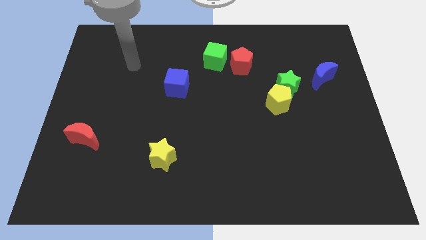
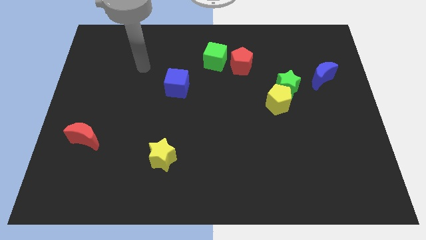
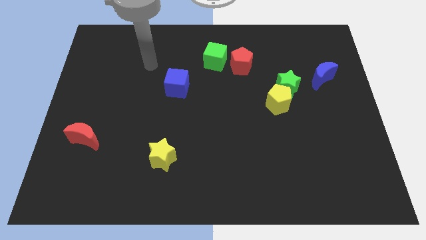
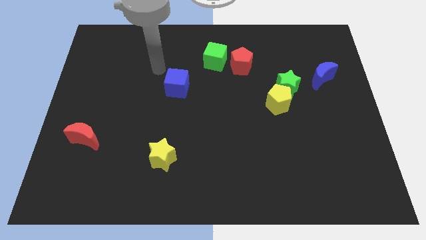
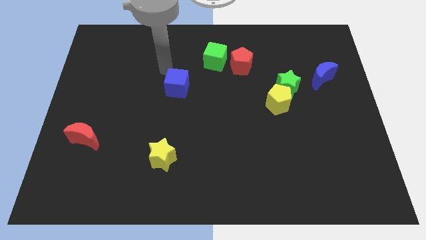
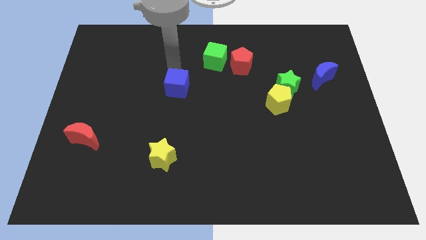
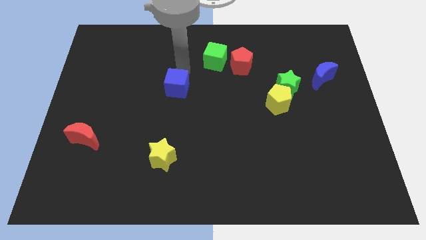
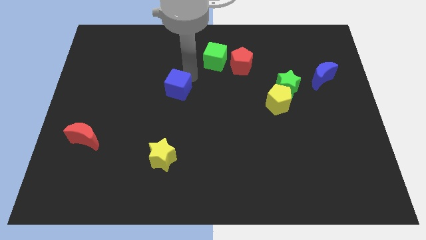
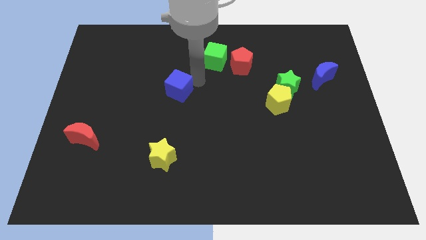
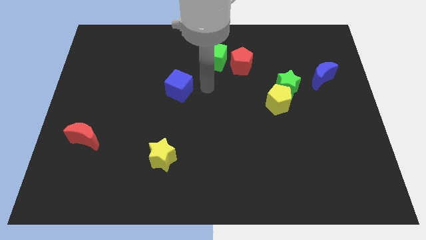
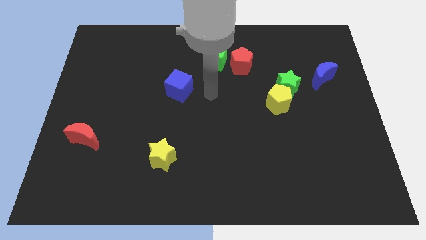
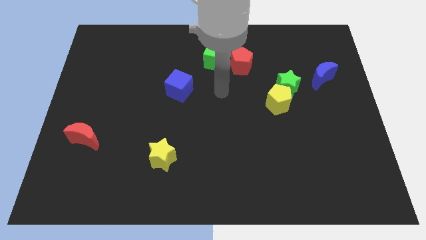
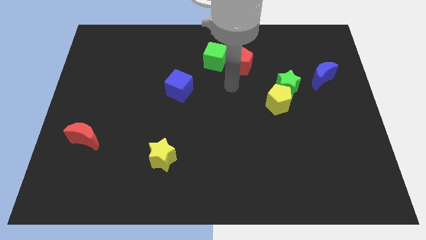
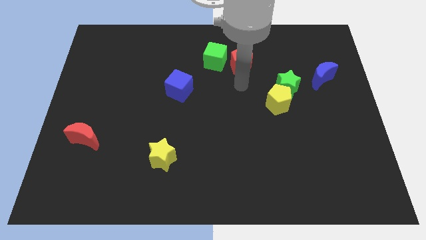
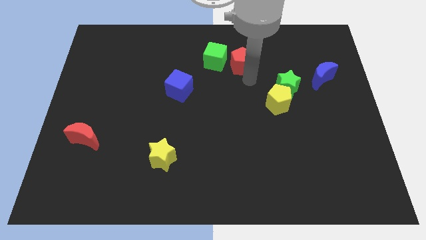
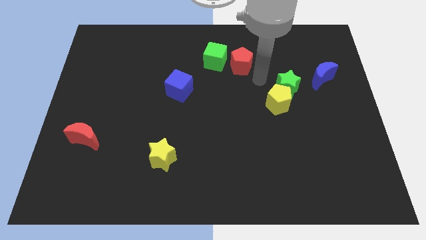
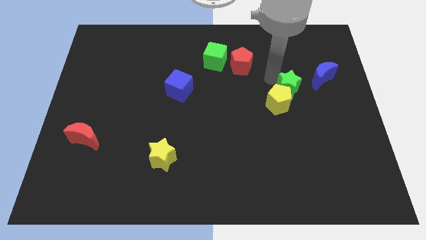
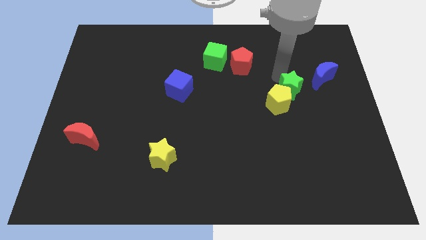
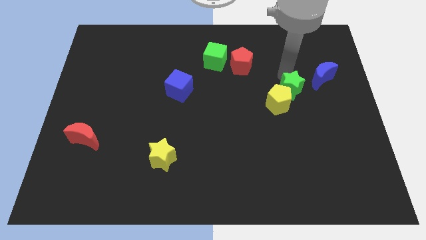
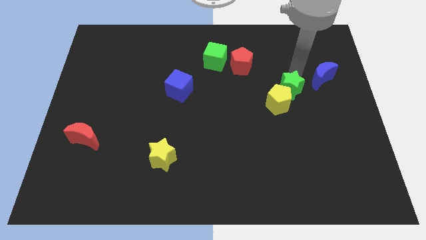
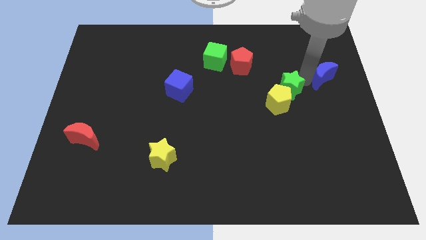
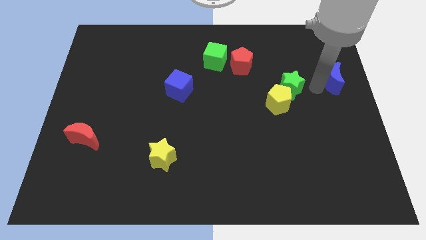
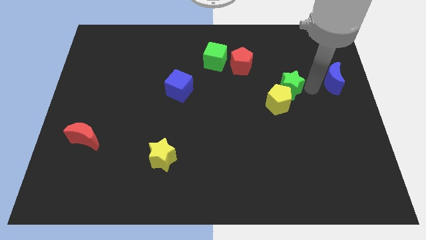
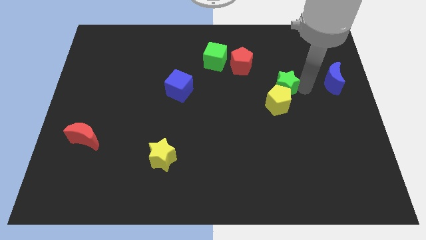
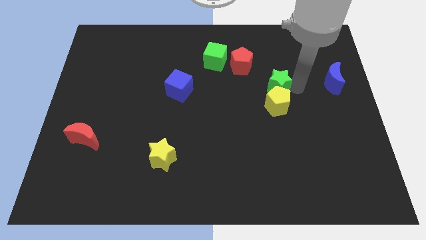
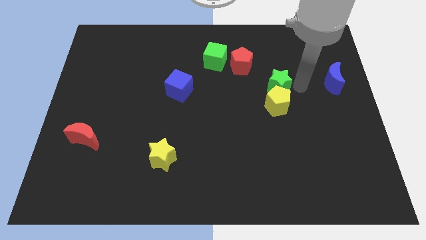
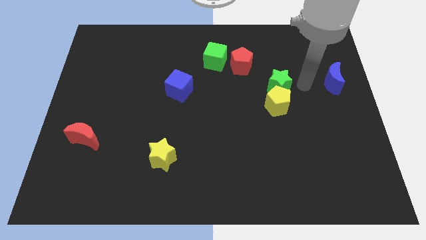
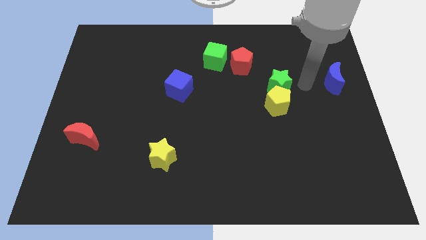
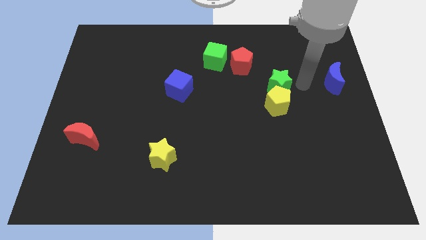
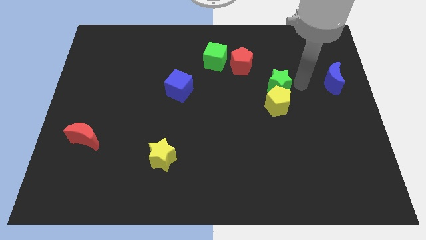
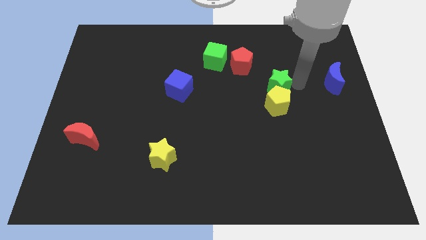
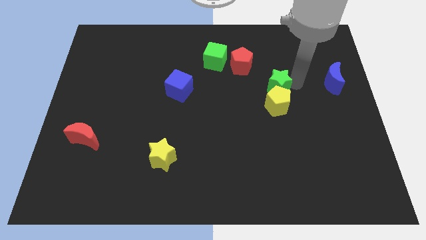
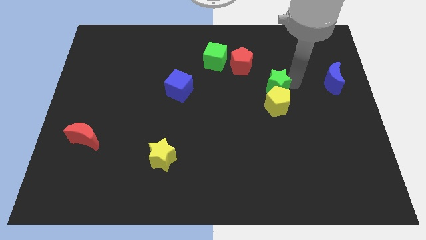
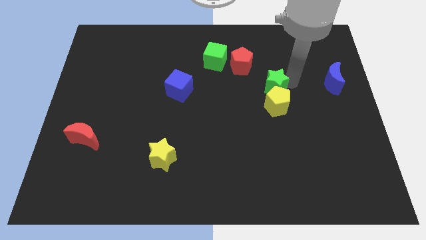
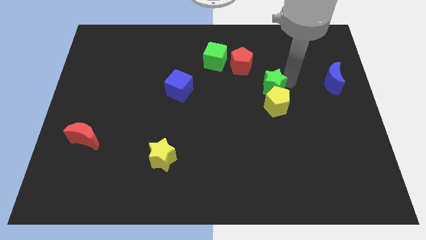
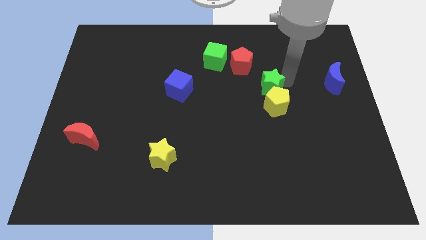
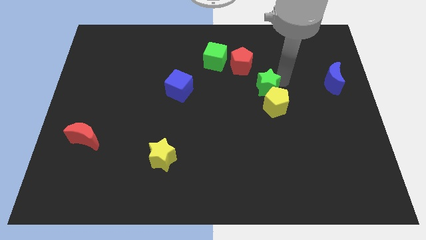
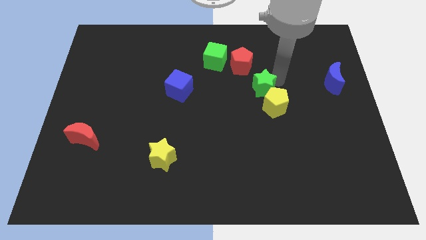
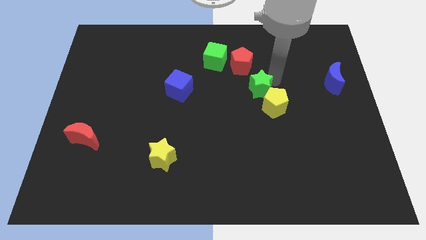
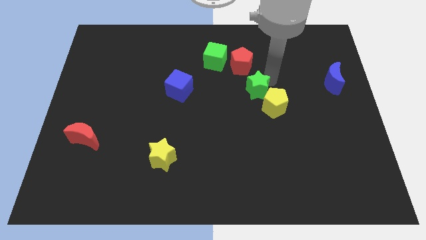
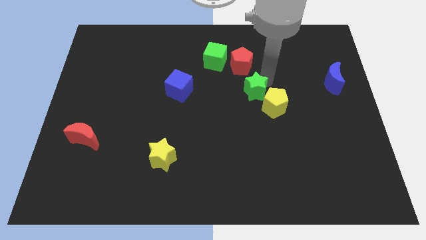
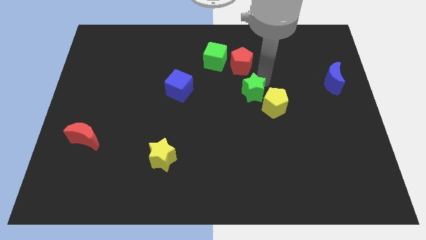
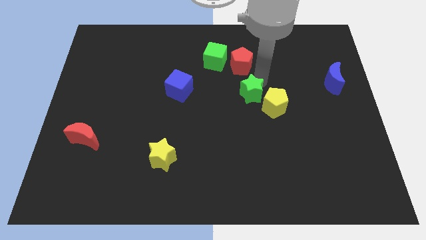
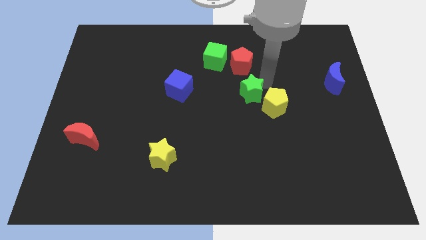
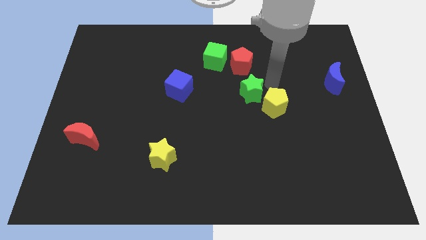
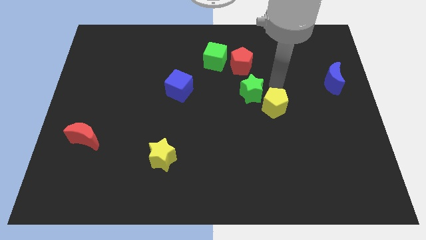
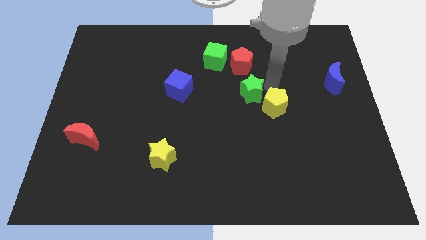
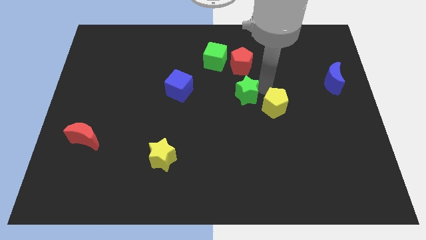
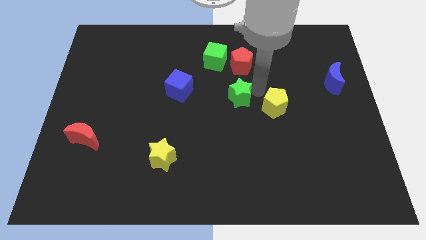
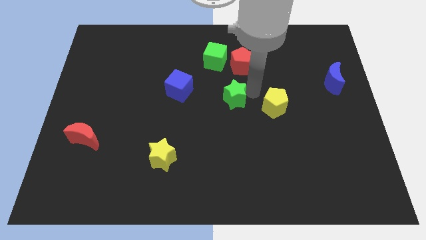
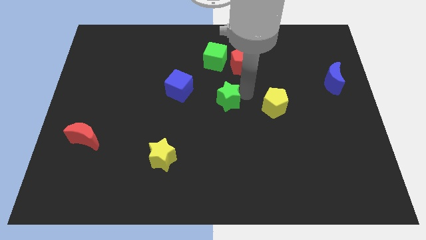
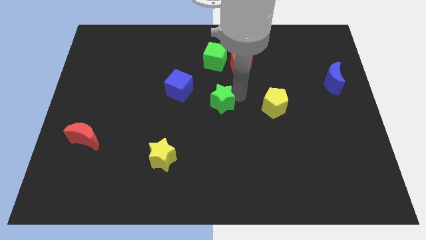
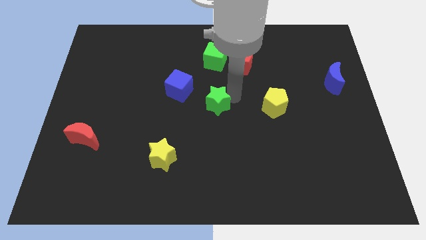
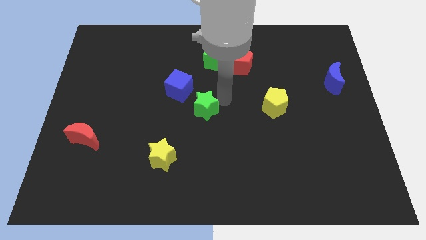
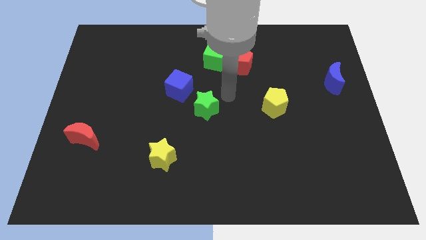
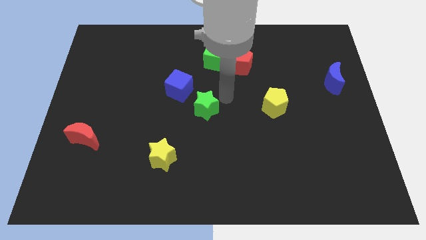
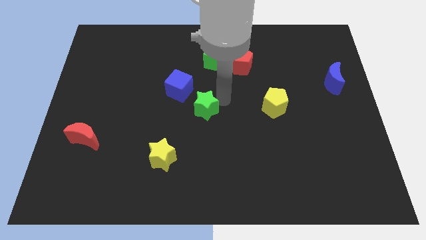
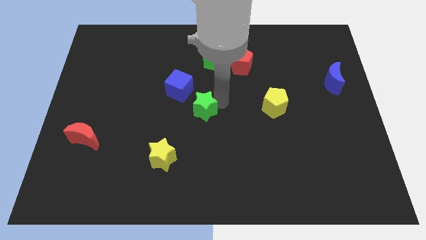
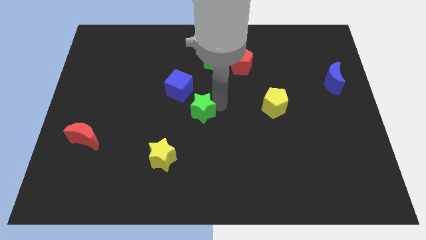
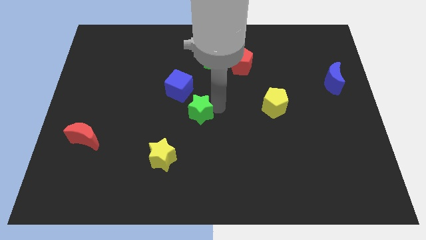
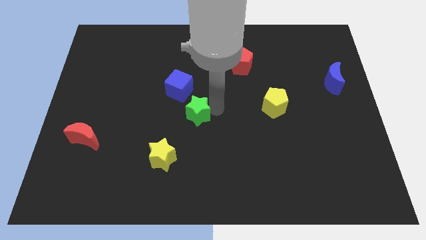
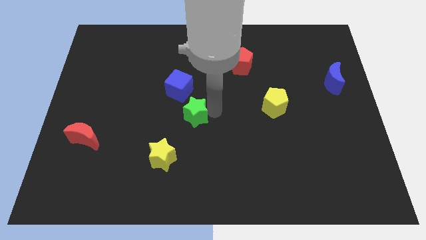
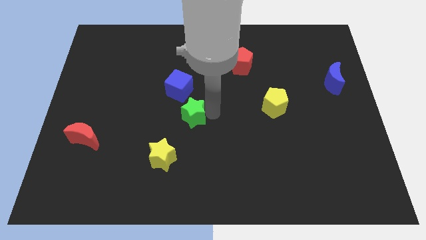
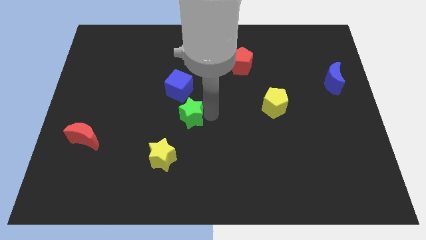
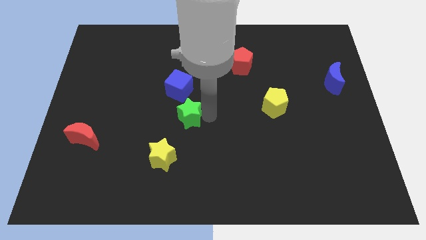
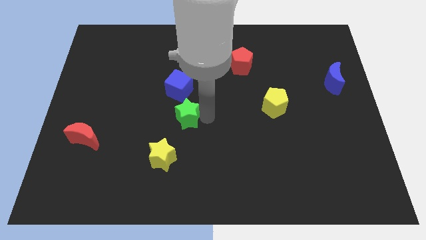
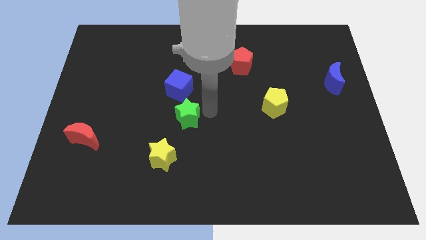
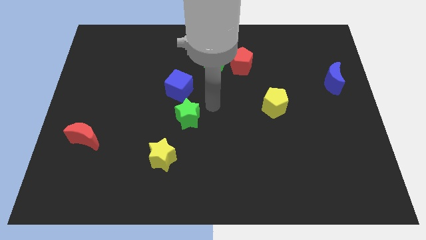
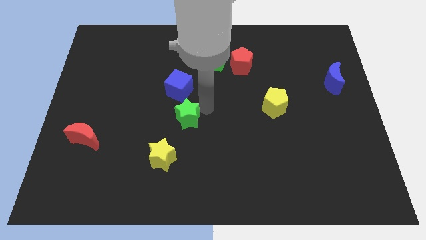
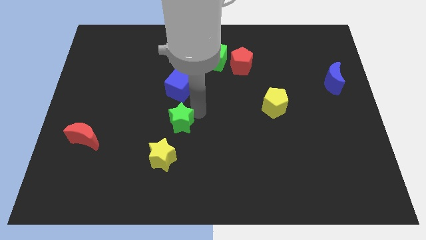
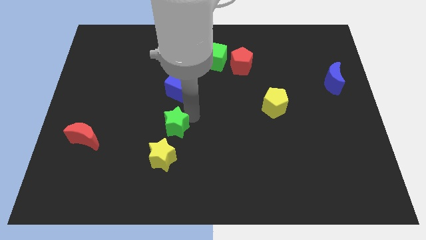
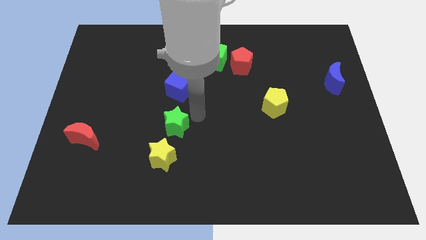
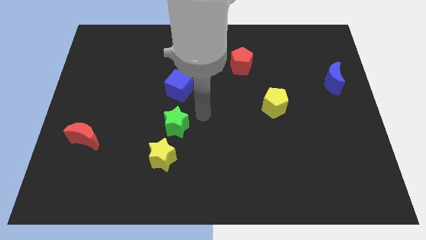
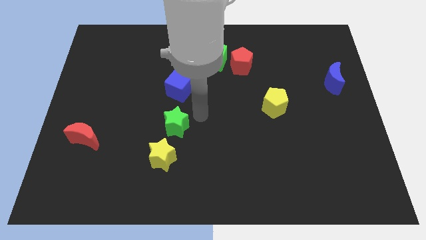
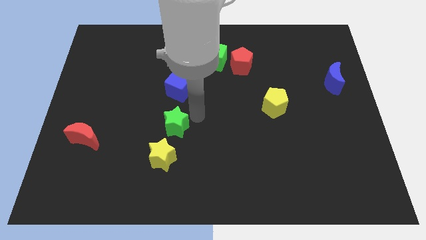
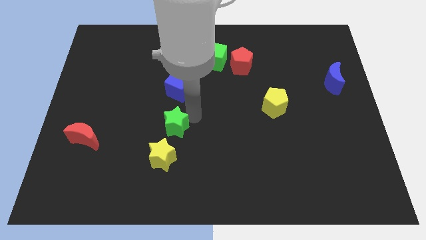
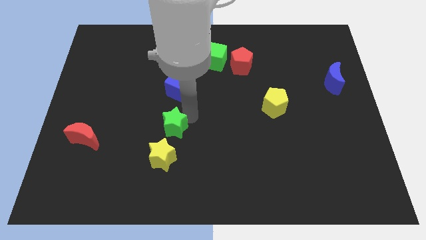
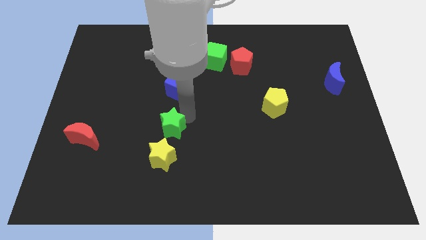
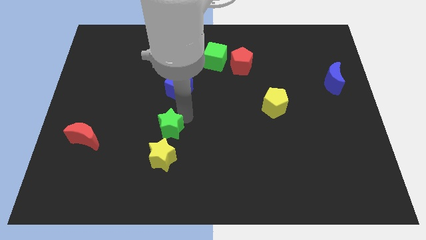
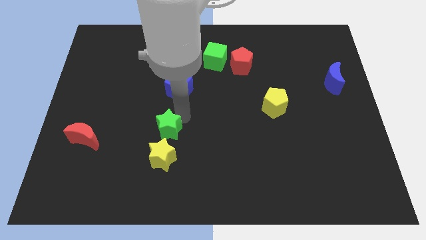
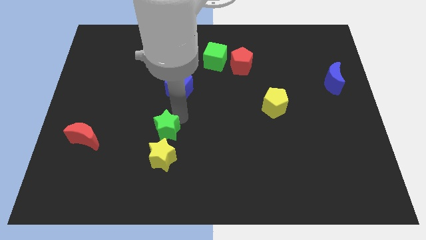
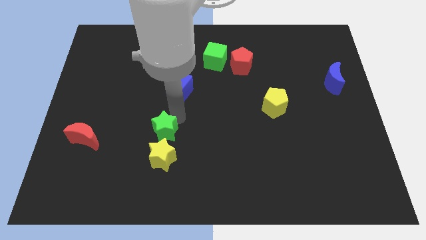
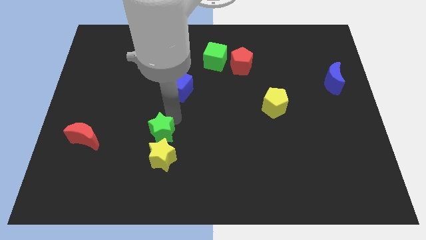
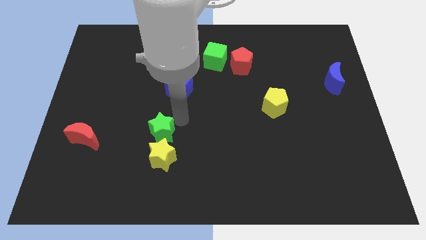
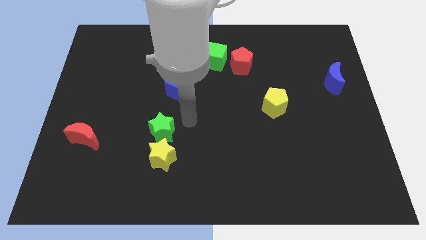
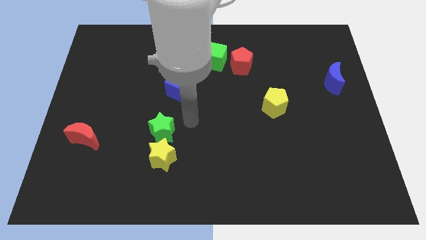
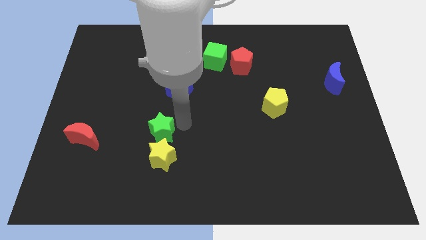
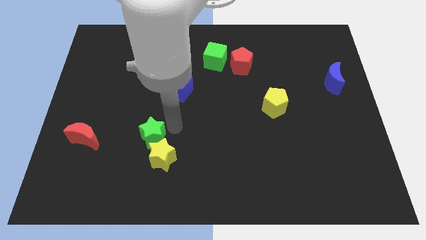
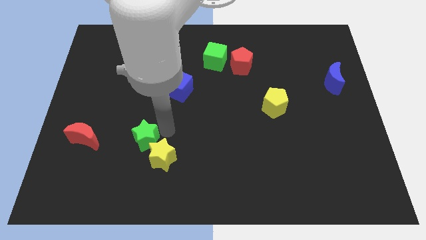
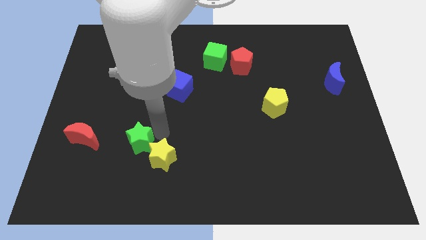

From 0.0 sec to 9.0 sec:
put the green star left of the yellow star
